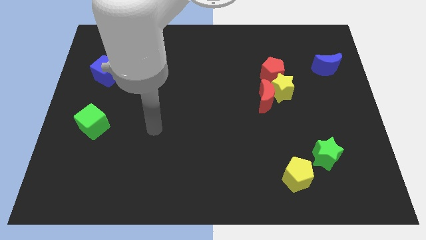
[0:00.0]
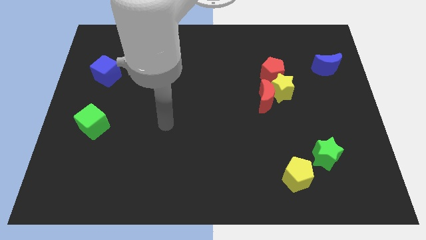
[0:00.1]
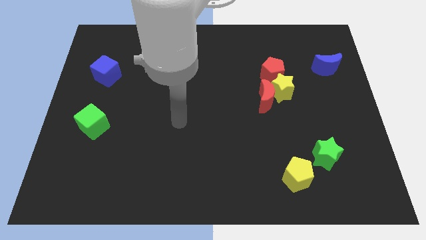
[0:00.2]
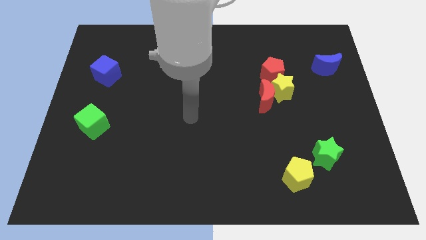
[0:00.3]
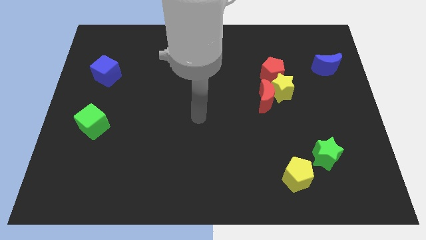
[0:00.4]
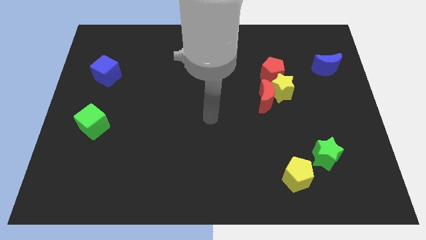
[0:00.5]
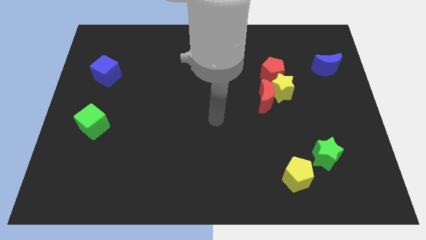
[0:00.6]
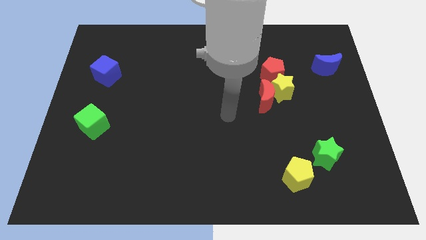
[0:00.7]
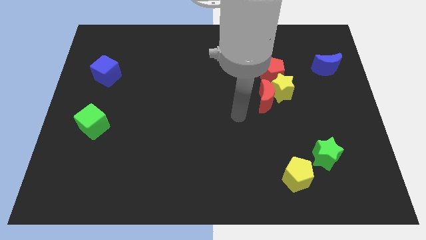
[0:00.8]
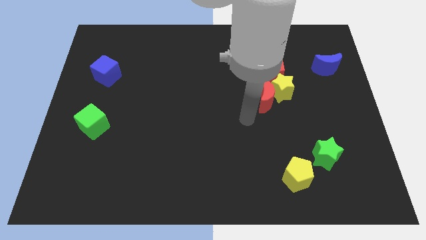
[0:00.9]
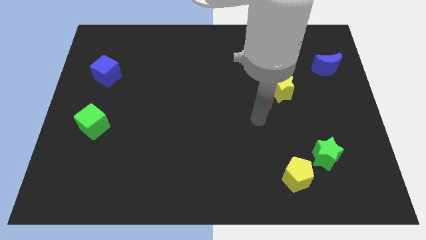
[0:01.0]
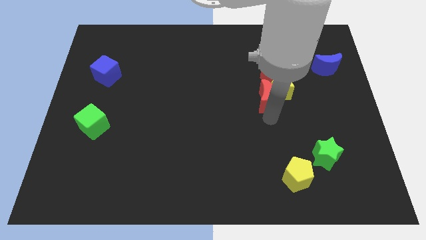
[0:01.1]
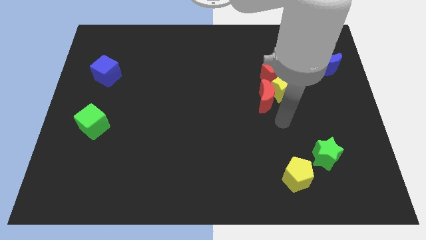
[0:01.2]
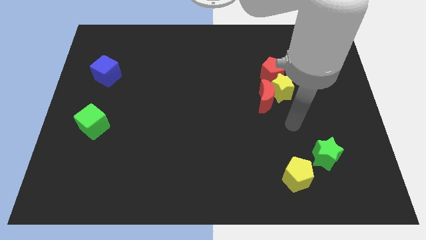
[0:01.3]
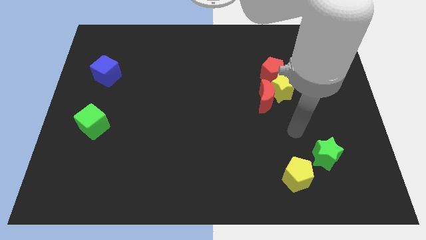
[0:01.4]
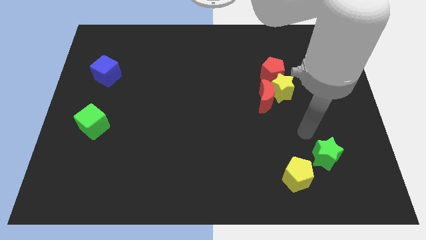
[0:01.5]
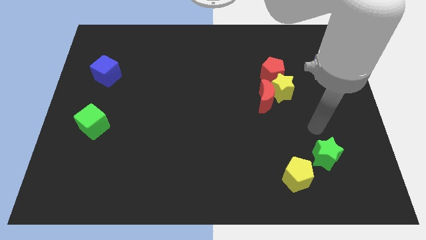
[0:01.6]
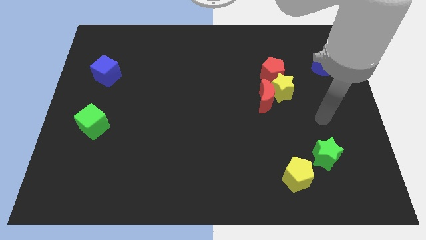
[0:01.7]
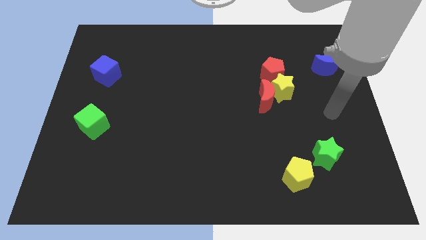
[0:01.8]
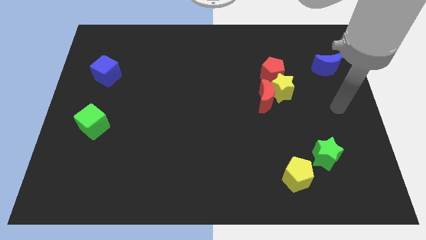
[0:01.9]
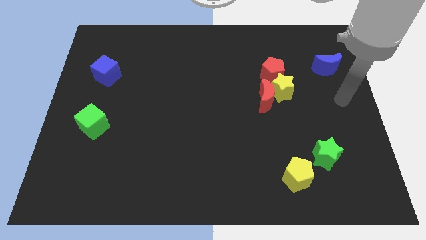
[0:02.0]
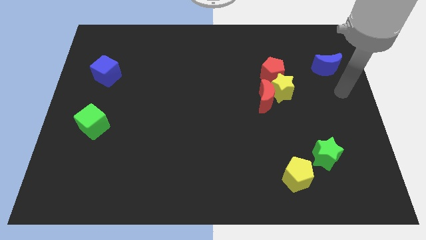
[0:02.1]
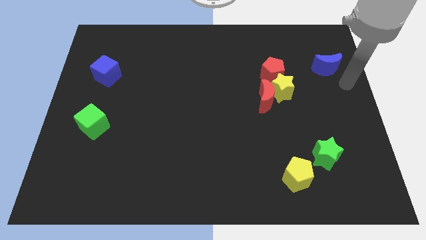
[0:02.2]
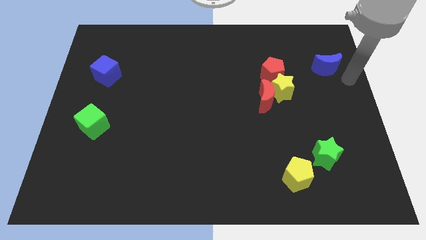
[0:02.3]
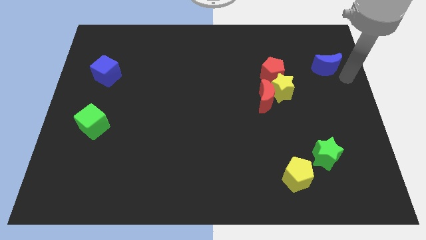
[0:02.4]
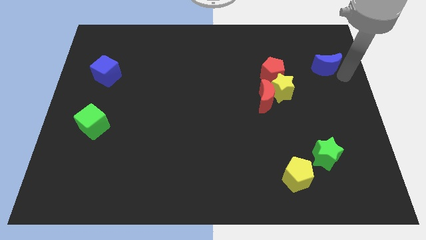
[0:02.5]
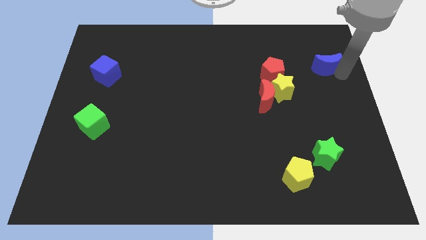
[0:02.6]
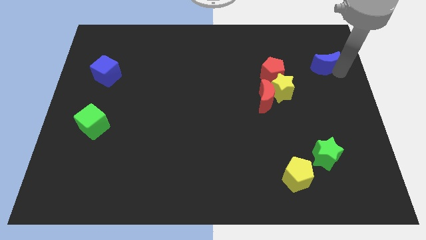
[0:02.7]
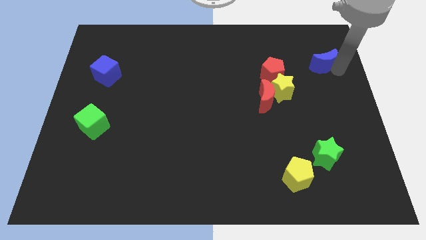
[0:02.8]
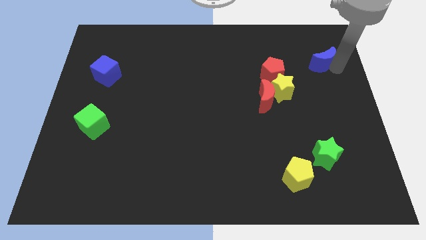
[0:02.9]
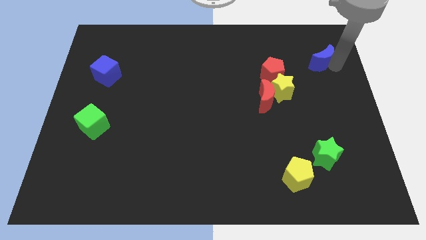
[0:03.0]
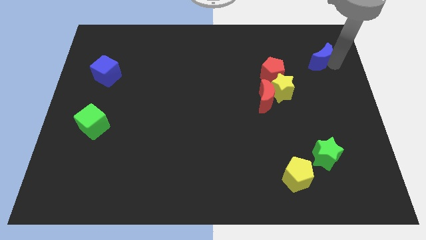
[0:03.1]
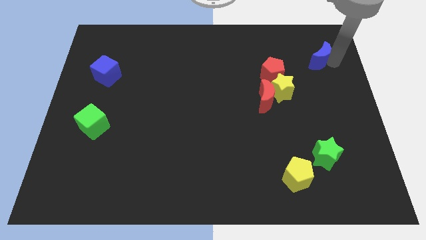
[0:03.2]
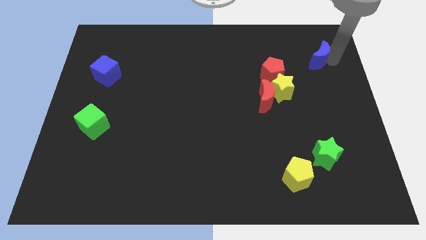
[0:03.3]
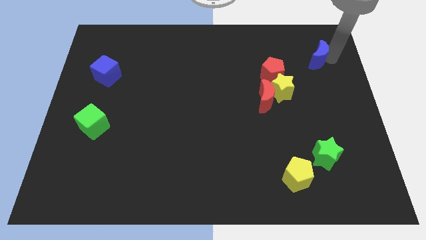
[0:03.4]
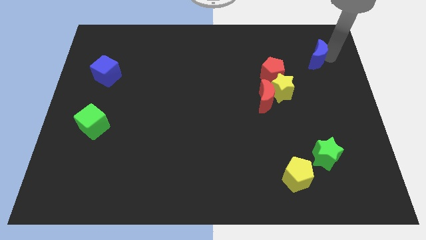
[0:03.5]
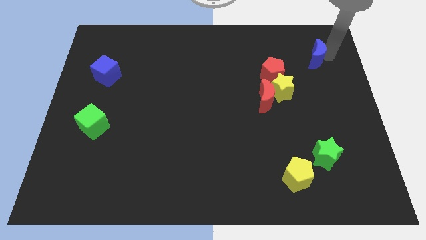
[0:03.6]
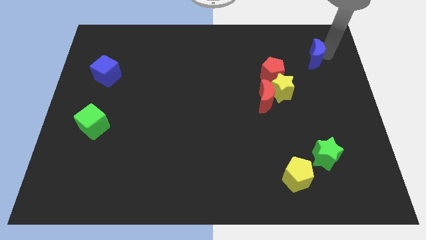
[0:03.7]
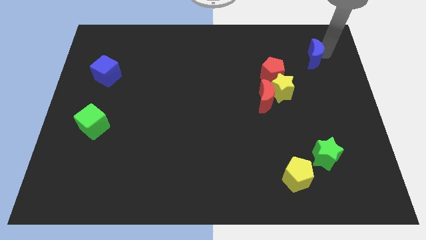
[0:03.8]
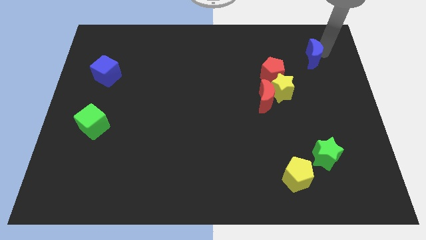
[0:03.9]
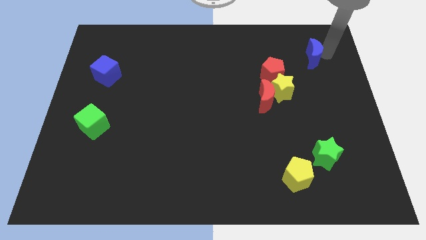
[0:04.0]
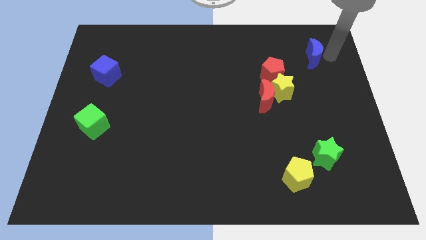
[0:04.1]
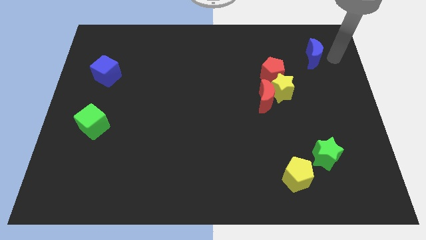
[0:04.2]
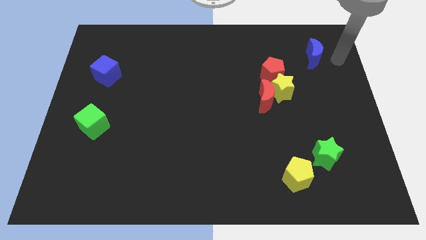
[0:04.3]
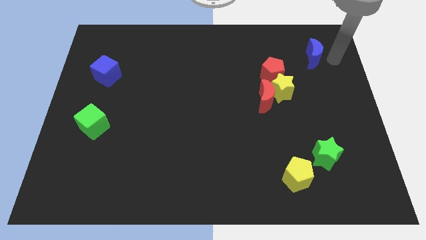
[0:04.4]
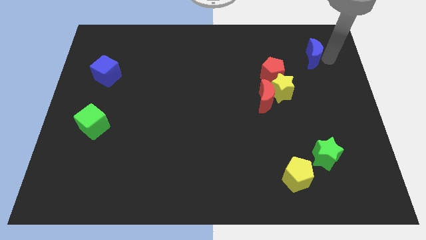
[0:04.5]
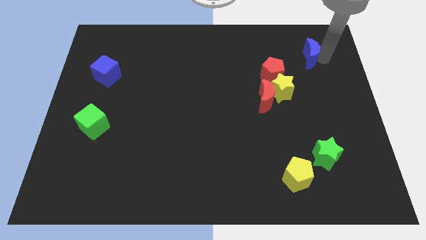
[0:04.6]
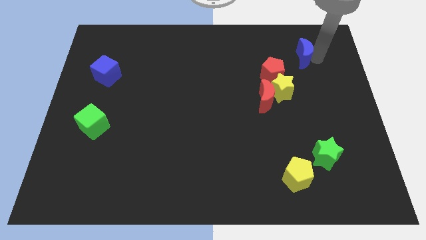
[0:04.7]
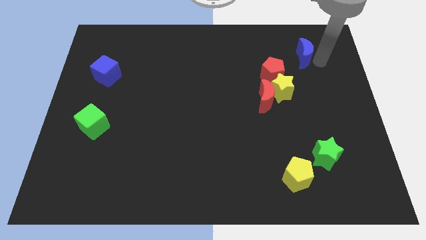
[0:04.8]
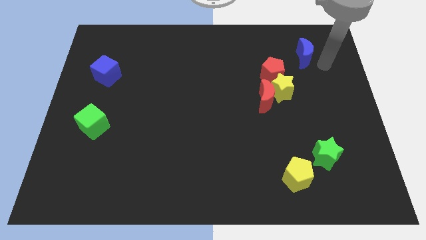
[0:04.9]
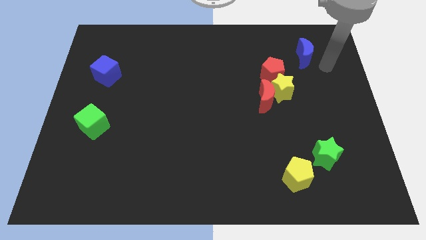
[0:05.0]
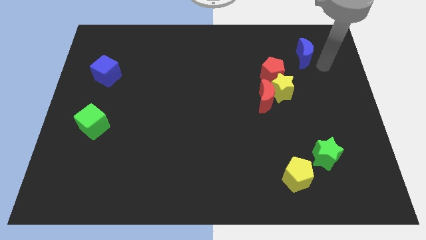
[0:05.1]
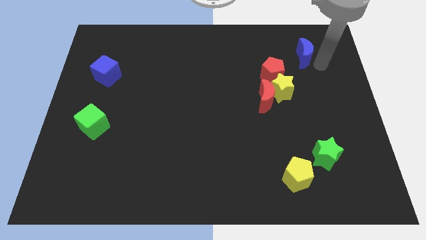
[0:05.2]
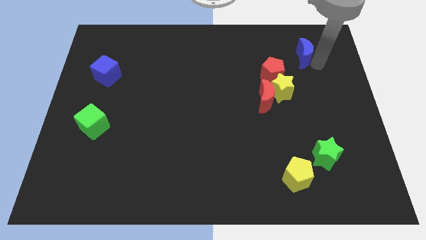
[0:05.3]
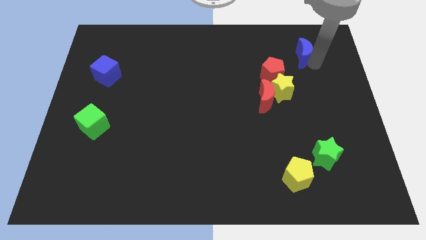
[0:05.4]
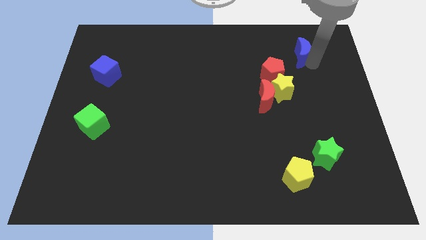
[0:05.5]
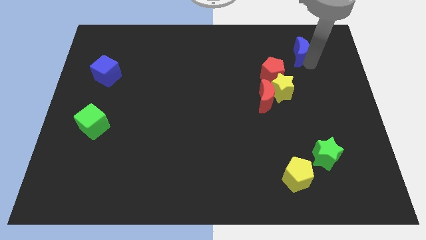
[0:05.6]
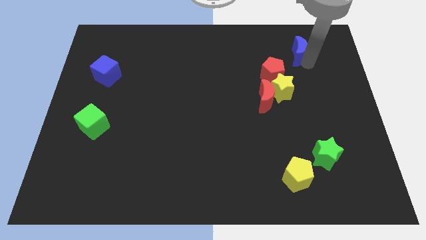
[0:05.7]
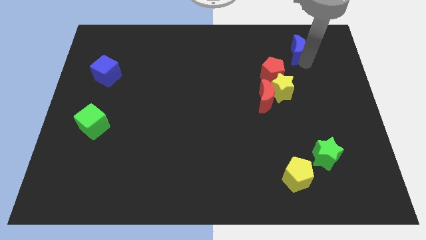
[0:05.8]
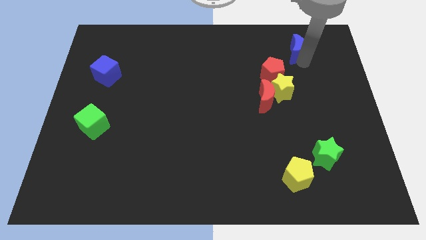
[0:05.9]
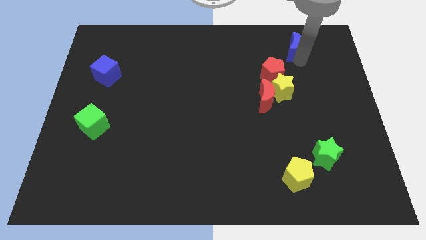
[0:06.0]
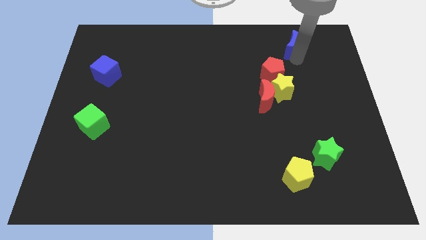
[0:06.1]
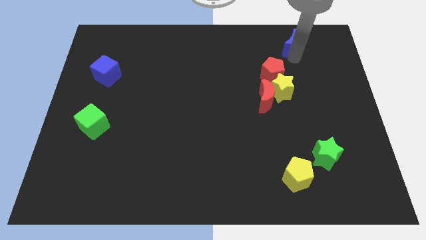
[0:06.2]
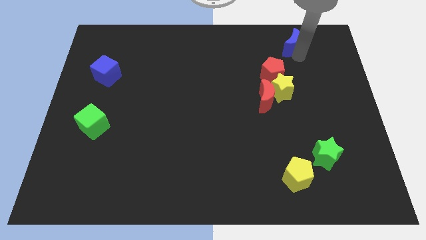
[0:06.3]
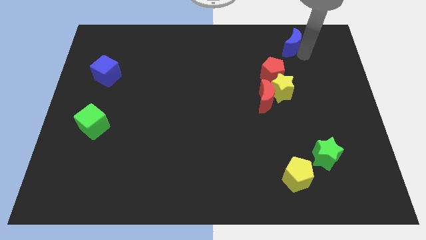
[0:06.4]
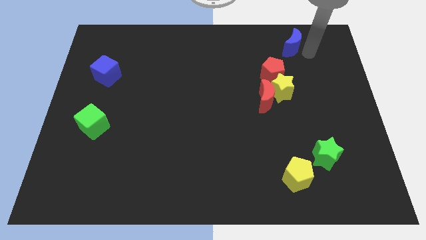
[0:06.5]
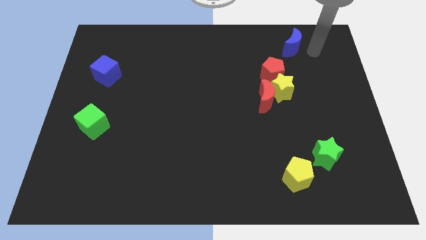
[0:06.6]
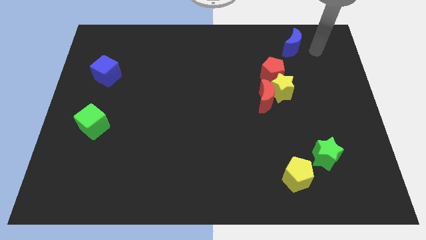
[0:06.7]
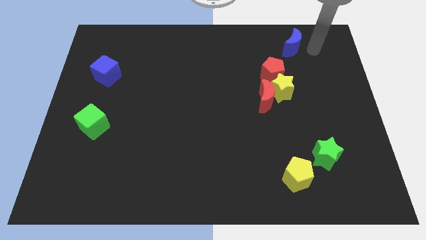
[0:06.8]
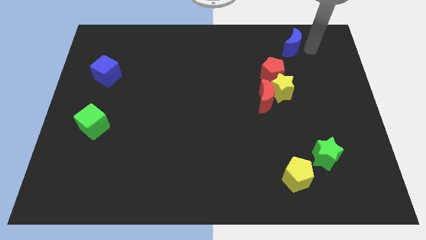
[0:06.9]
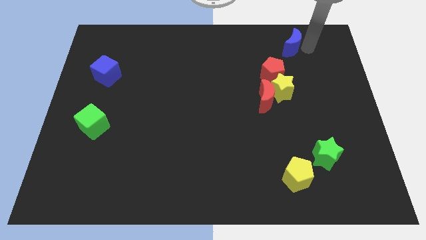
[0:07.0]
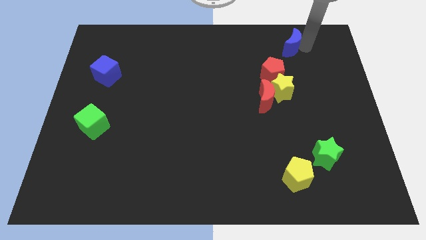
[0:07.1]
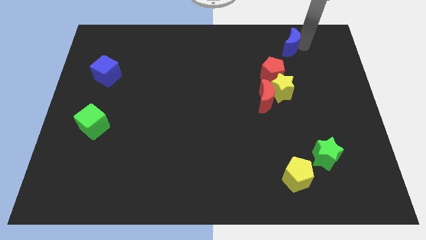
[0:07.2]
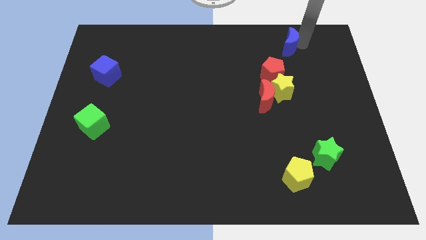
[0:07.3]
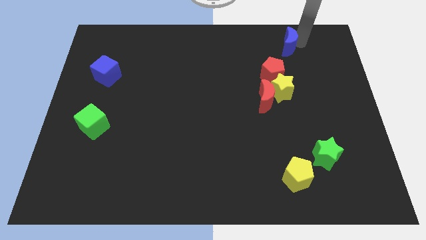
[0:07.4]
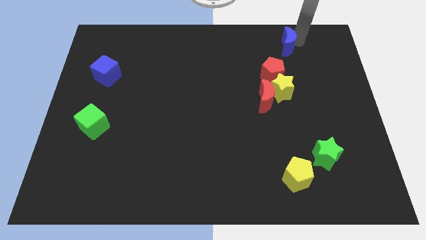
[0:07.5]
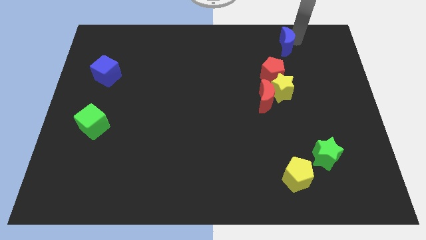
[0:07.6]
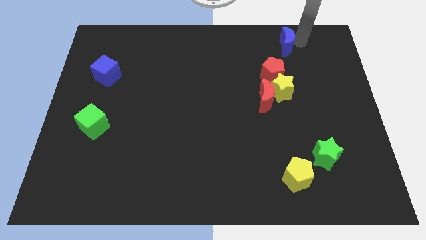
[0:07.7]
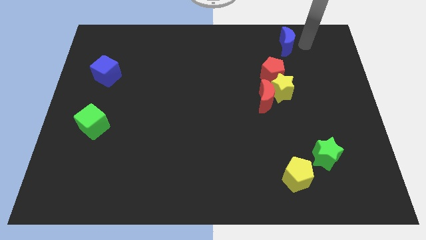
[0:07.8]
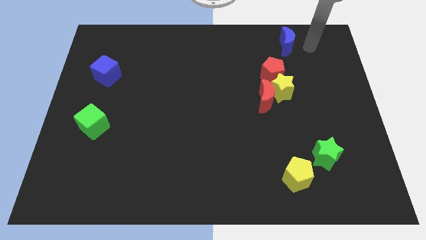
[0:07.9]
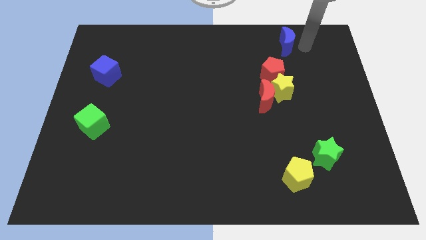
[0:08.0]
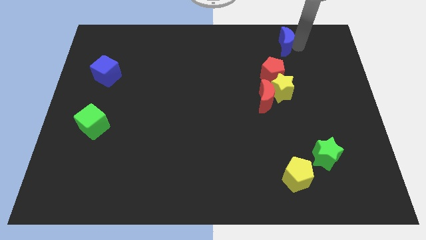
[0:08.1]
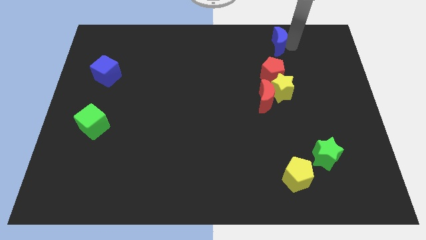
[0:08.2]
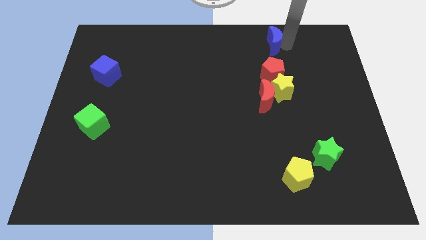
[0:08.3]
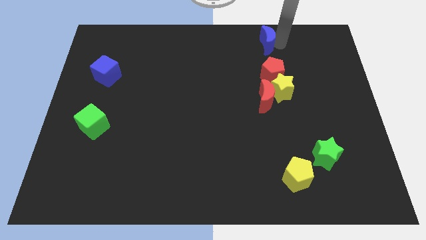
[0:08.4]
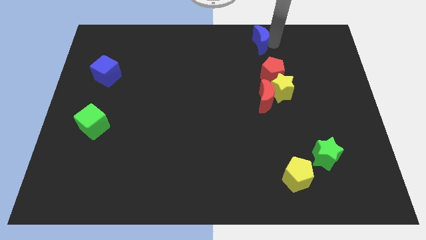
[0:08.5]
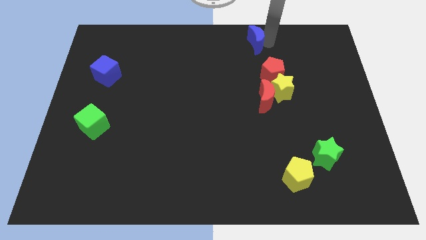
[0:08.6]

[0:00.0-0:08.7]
slide the blue moon to the towards your base
